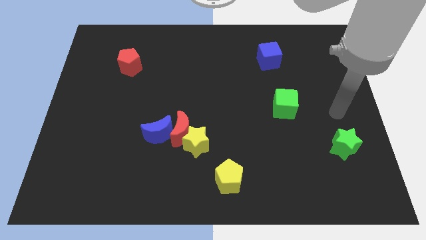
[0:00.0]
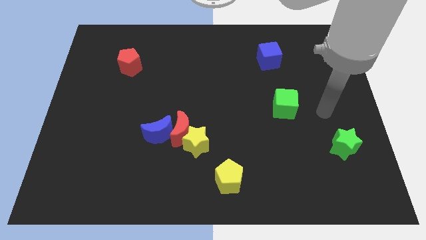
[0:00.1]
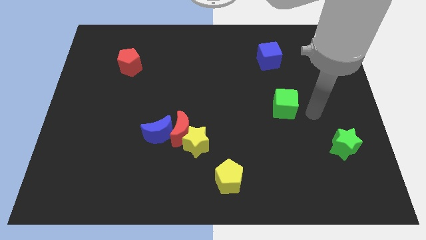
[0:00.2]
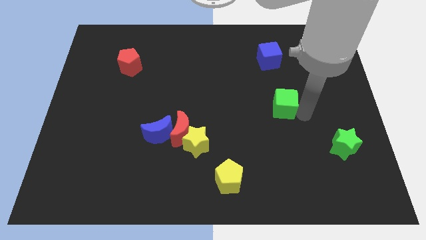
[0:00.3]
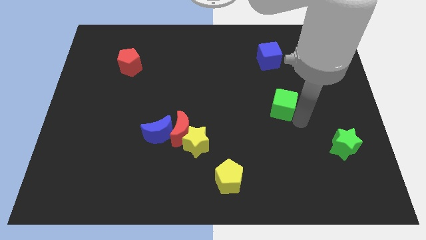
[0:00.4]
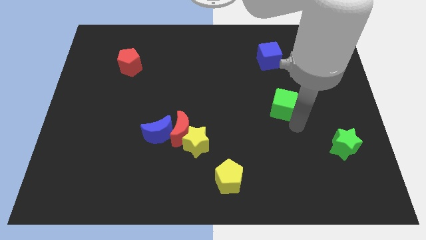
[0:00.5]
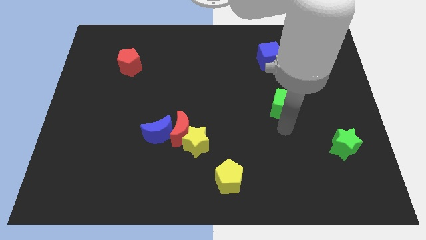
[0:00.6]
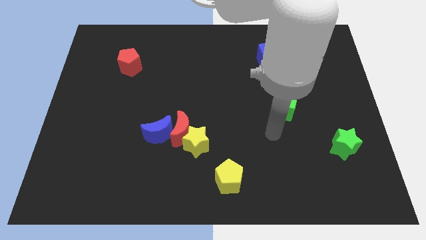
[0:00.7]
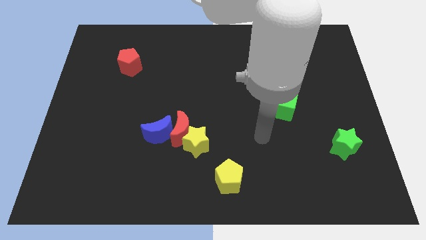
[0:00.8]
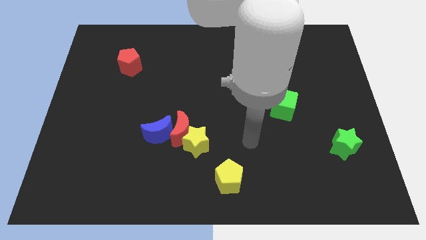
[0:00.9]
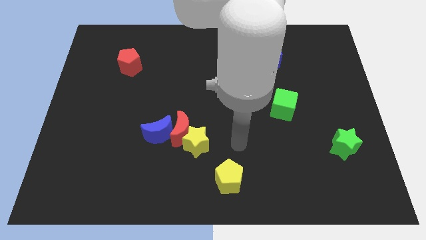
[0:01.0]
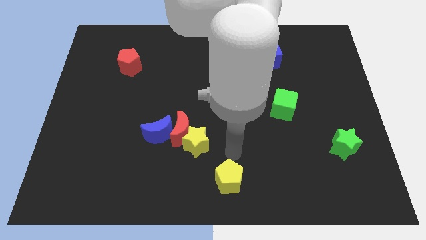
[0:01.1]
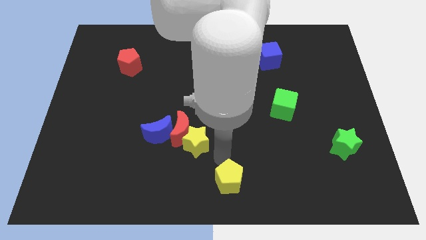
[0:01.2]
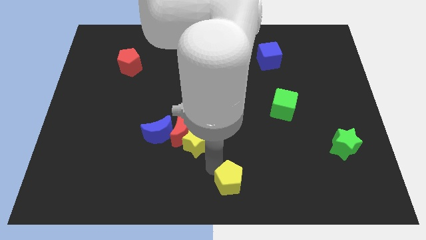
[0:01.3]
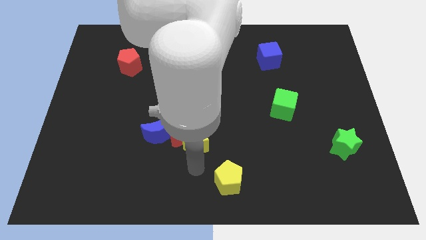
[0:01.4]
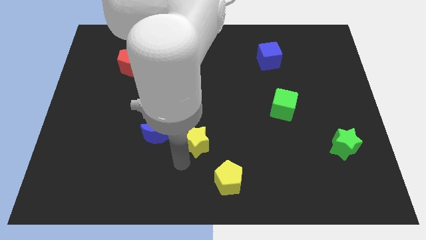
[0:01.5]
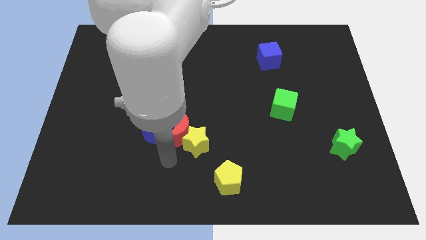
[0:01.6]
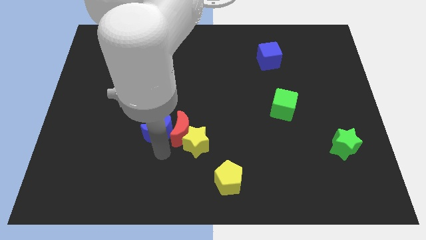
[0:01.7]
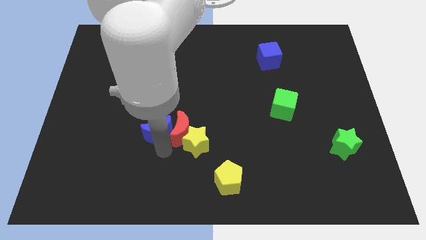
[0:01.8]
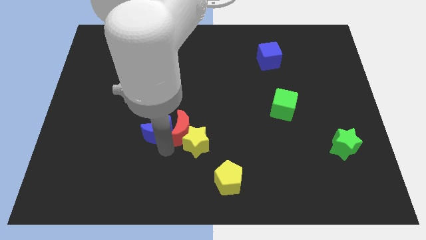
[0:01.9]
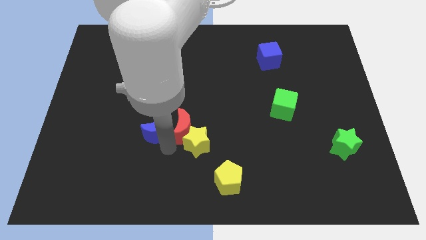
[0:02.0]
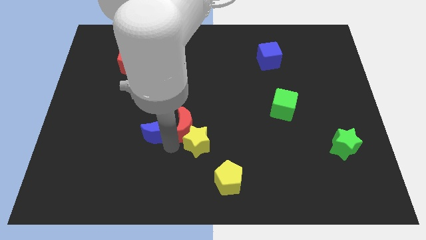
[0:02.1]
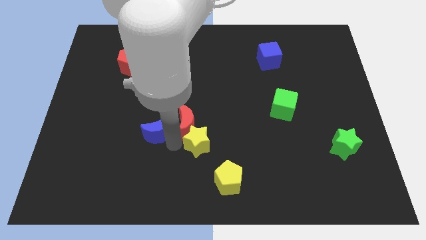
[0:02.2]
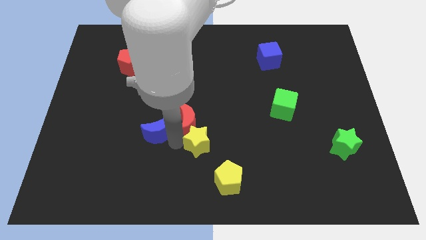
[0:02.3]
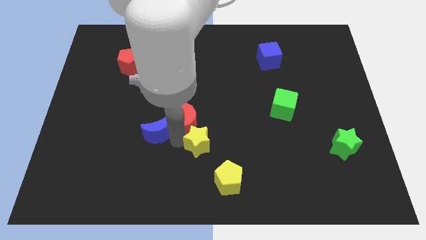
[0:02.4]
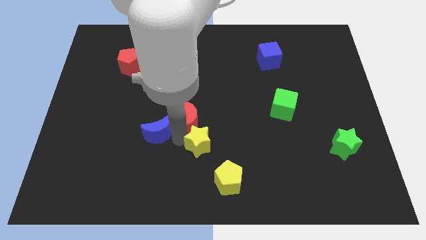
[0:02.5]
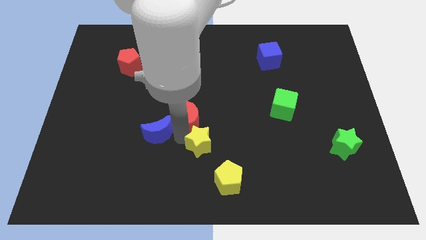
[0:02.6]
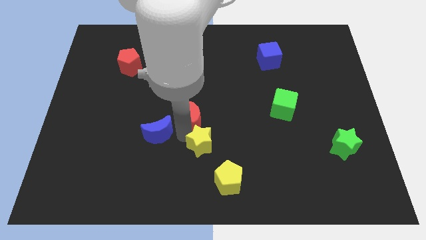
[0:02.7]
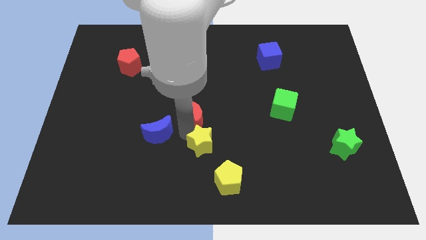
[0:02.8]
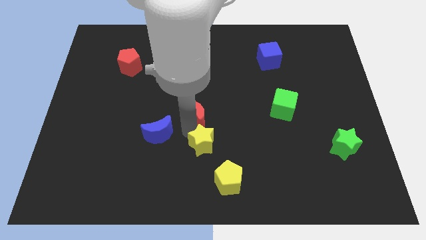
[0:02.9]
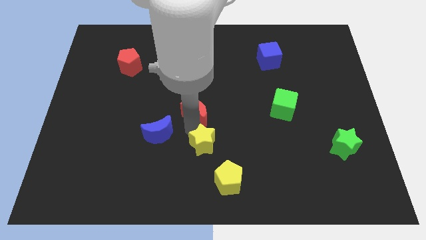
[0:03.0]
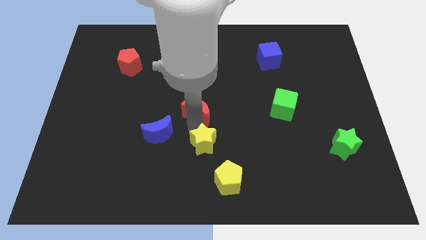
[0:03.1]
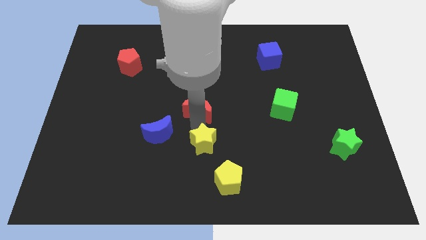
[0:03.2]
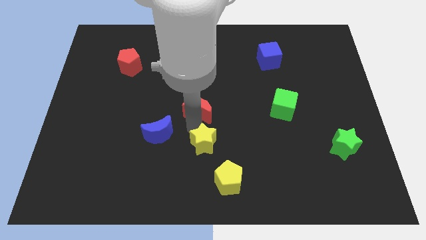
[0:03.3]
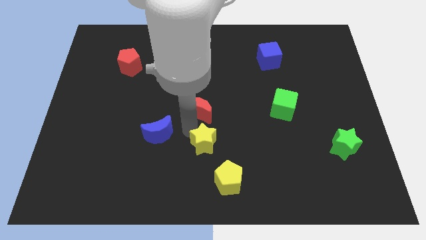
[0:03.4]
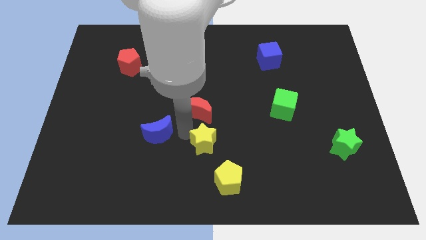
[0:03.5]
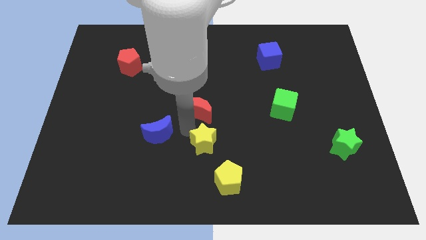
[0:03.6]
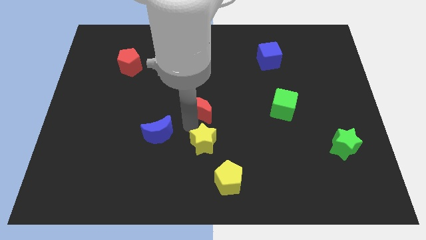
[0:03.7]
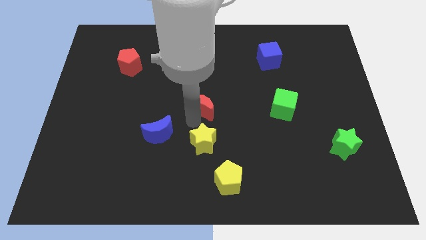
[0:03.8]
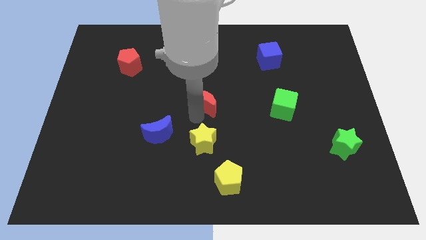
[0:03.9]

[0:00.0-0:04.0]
move the red moon away from the yellow star and blue moon

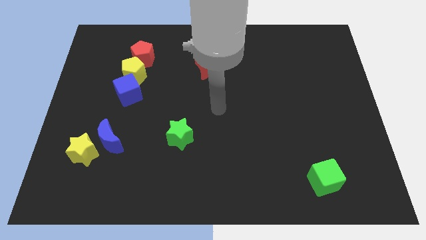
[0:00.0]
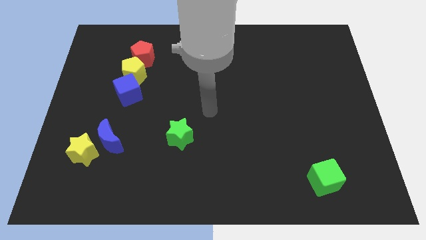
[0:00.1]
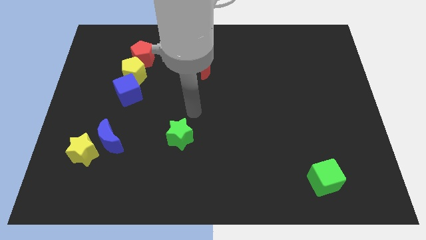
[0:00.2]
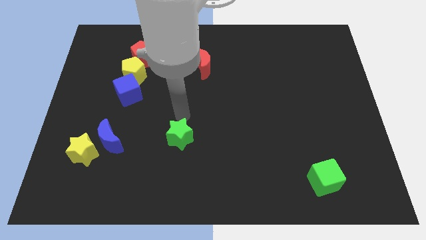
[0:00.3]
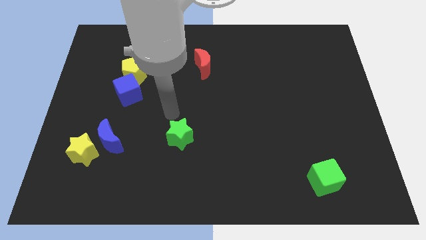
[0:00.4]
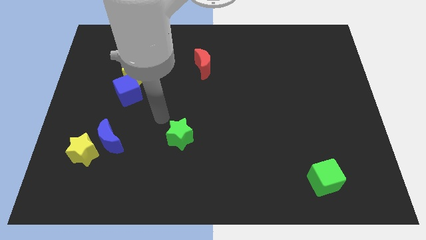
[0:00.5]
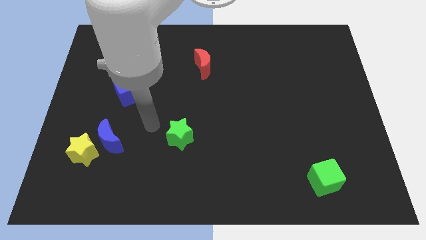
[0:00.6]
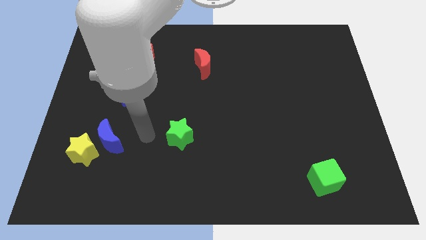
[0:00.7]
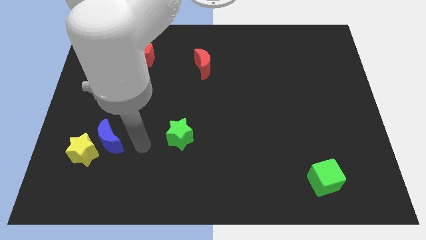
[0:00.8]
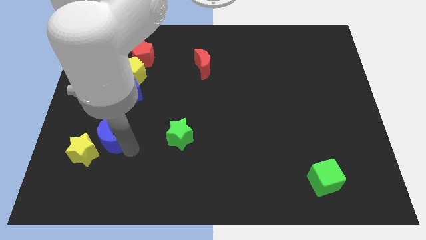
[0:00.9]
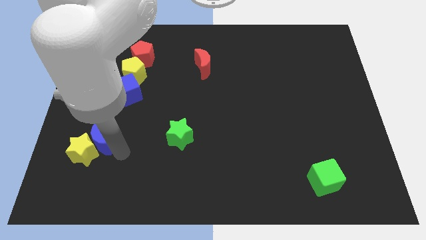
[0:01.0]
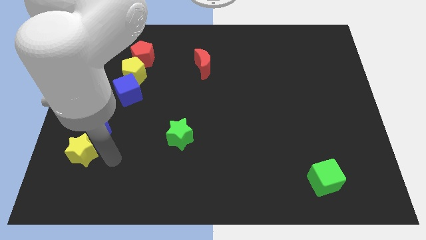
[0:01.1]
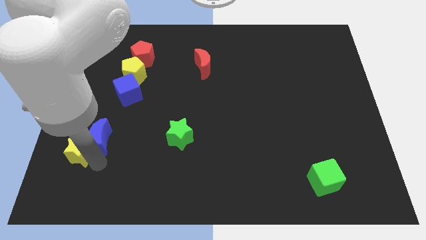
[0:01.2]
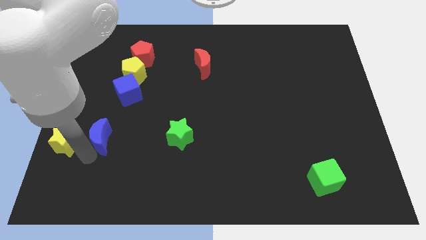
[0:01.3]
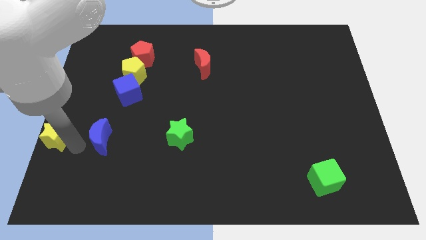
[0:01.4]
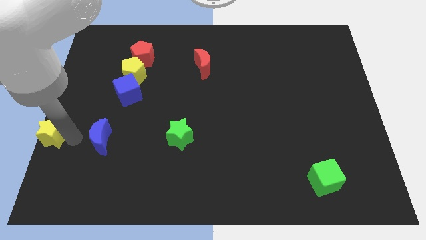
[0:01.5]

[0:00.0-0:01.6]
pull the blue moon apart from the yellow star

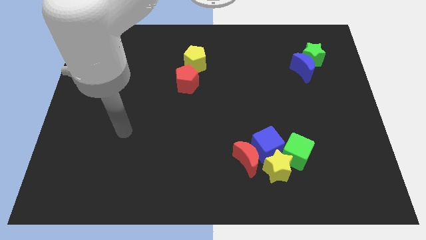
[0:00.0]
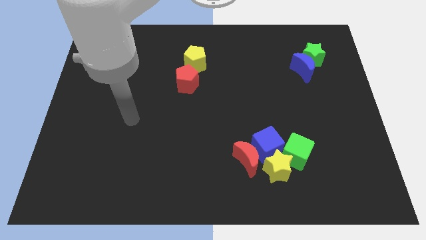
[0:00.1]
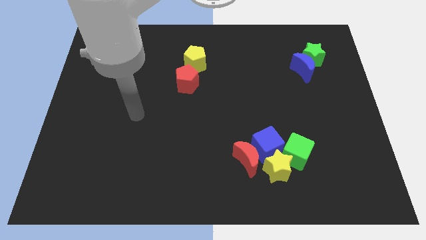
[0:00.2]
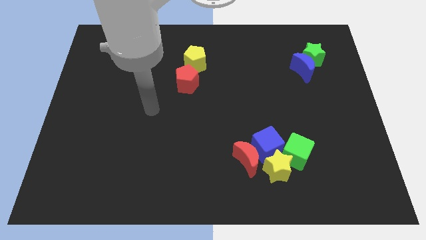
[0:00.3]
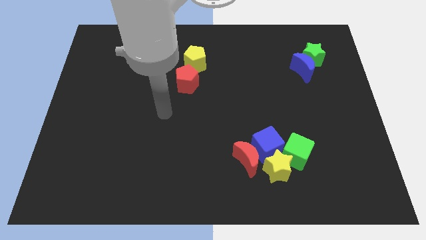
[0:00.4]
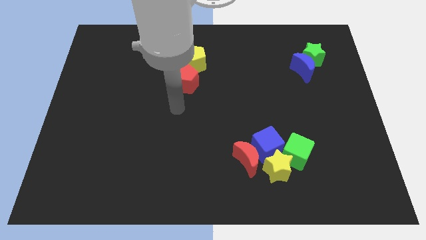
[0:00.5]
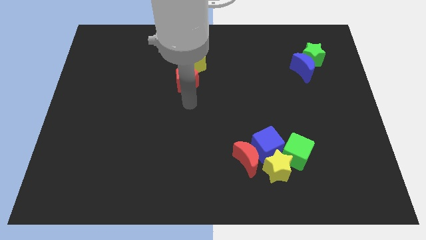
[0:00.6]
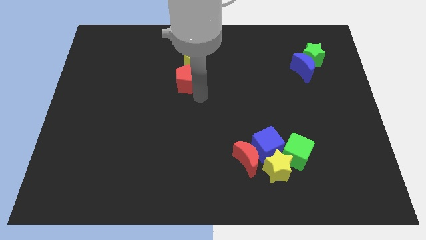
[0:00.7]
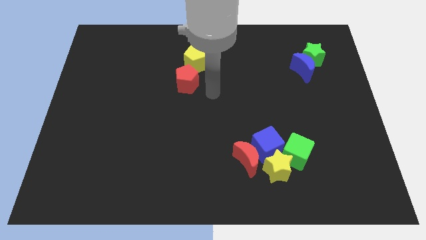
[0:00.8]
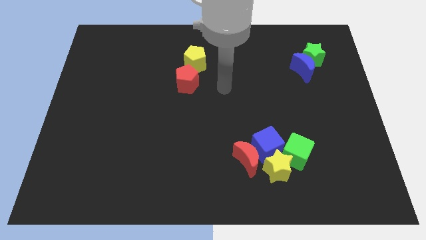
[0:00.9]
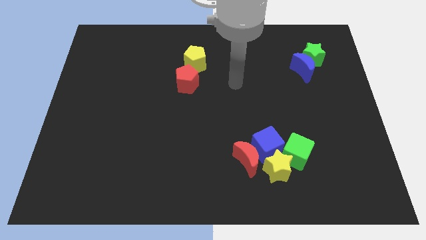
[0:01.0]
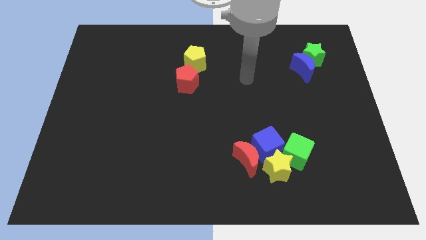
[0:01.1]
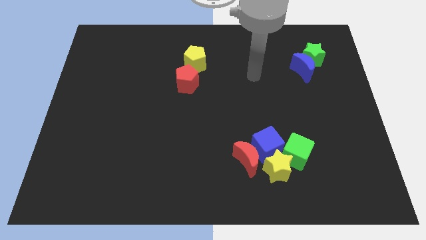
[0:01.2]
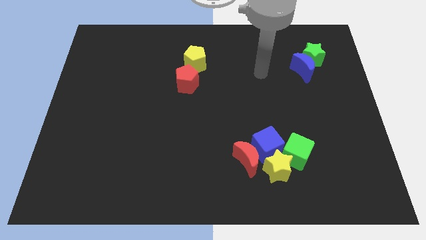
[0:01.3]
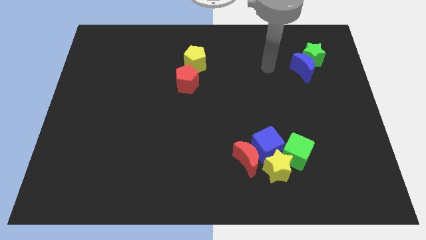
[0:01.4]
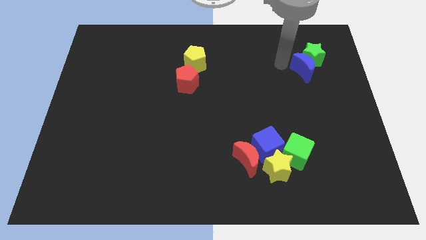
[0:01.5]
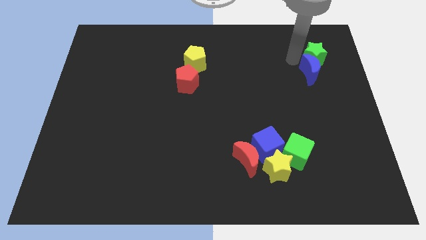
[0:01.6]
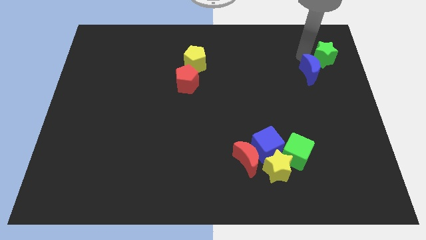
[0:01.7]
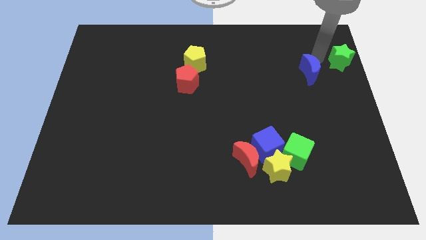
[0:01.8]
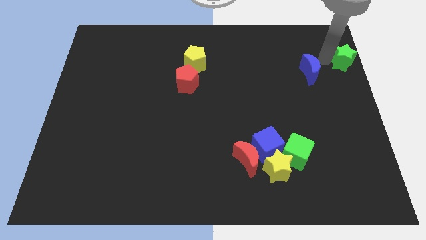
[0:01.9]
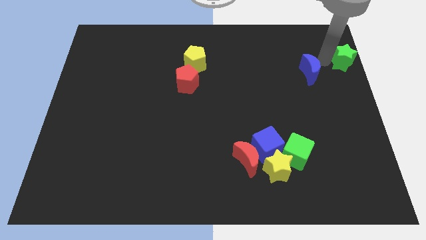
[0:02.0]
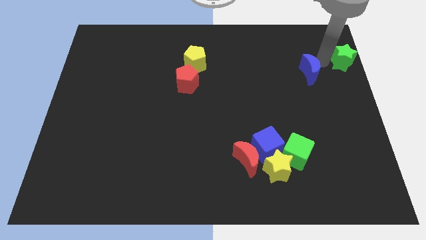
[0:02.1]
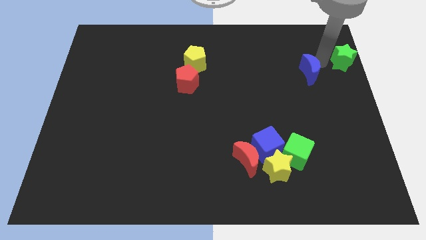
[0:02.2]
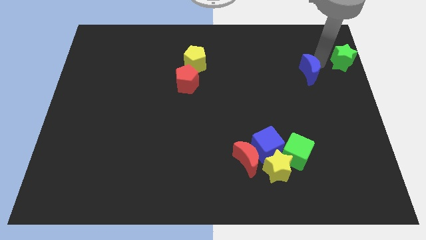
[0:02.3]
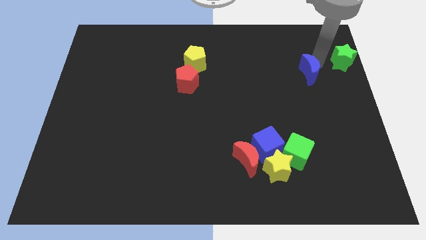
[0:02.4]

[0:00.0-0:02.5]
separate the blue moon from the green star

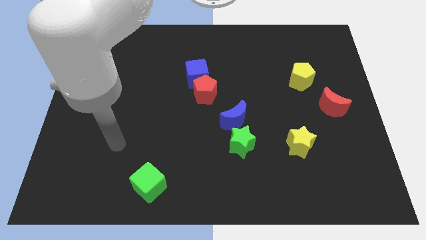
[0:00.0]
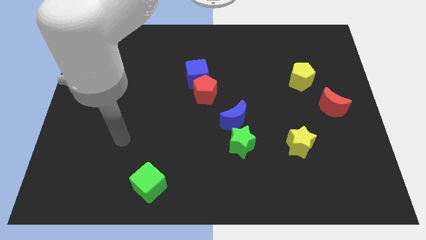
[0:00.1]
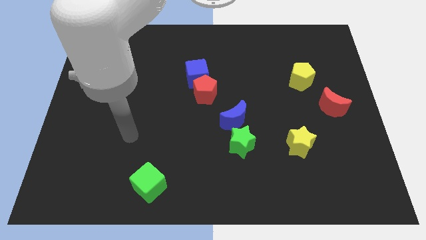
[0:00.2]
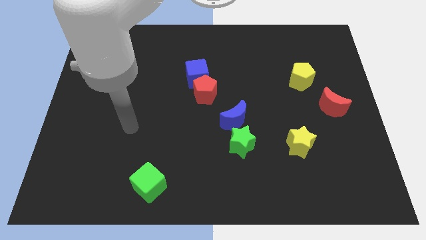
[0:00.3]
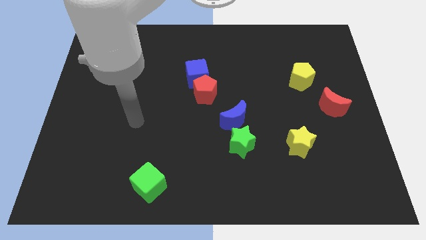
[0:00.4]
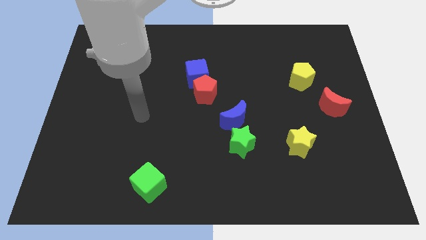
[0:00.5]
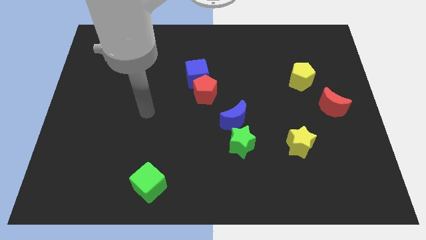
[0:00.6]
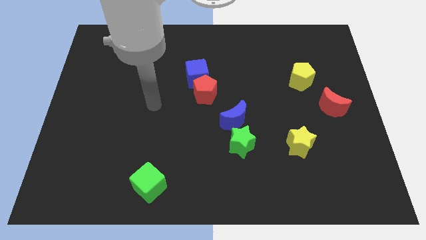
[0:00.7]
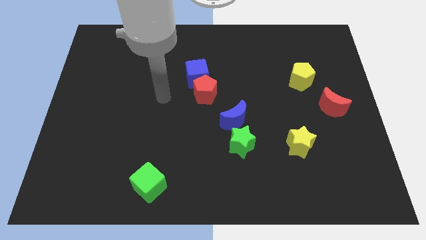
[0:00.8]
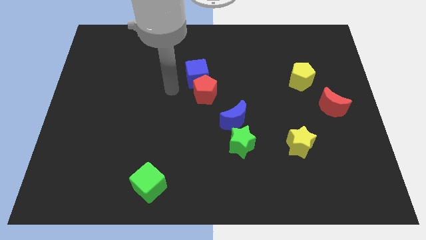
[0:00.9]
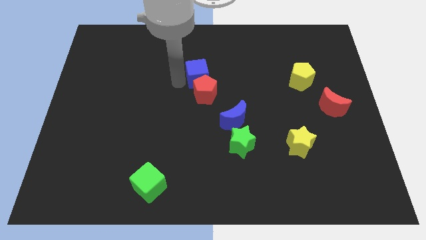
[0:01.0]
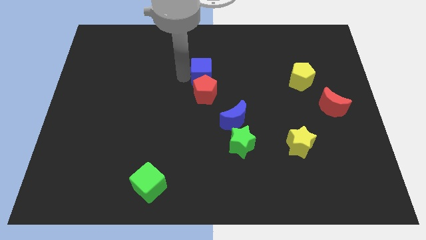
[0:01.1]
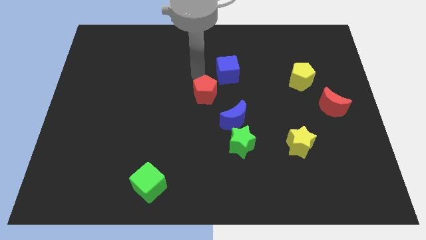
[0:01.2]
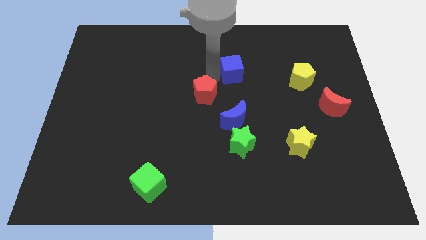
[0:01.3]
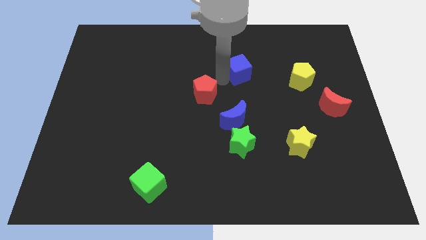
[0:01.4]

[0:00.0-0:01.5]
separate the red pentagon from the blue cube

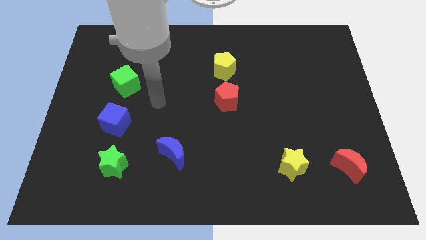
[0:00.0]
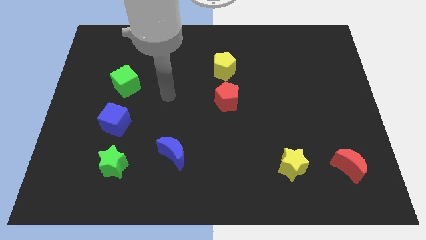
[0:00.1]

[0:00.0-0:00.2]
separate the red pentagon from the yellow pentagon
